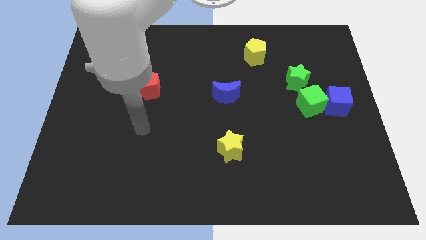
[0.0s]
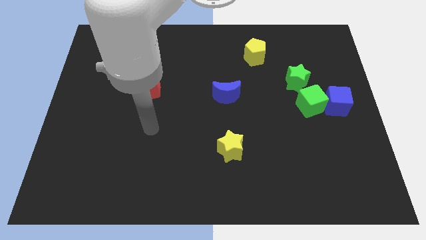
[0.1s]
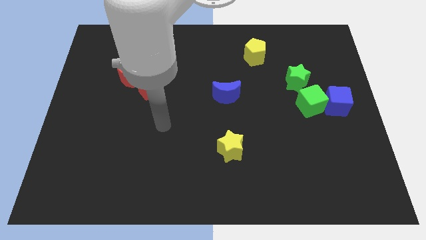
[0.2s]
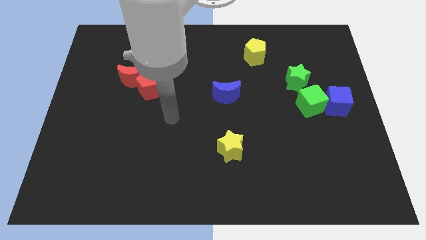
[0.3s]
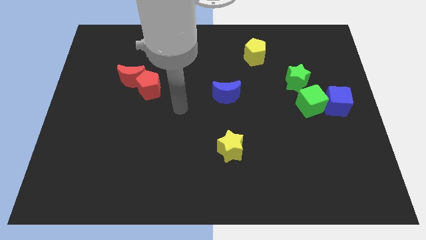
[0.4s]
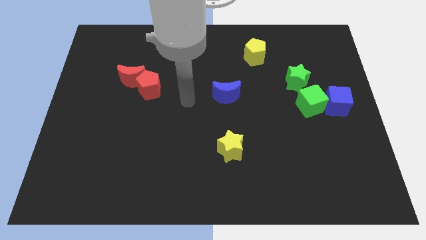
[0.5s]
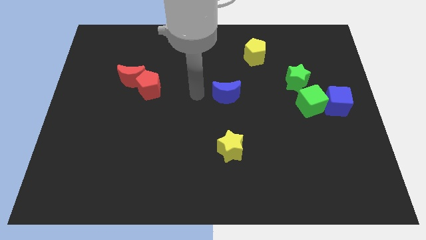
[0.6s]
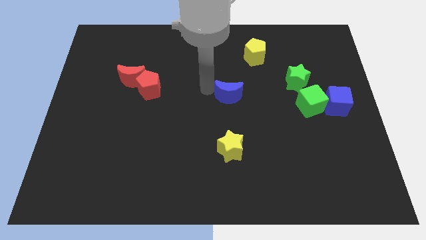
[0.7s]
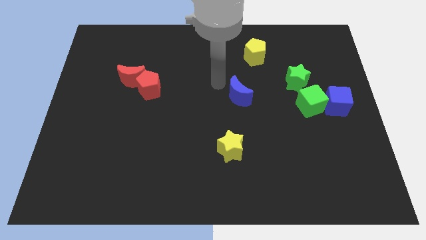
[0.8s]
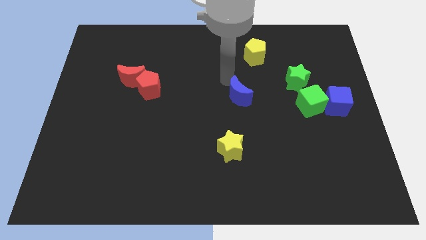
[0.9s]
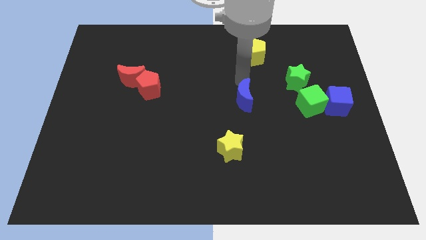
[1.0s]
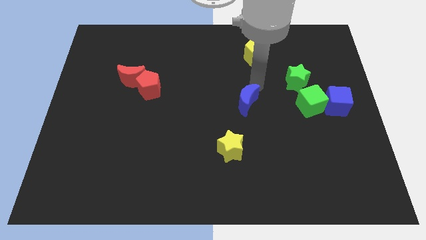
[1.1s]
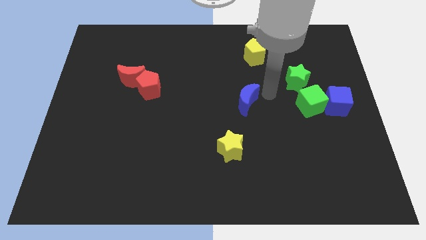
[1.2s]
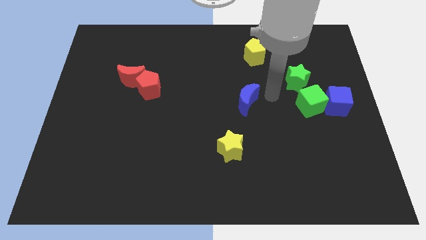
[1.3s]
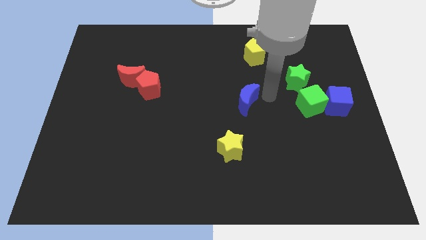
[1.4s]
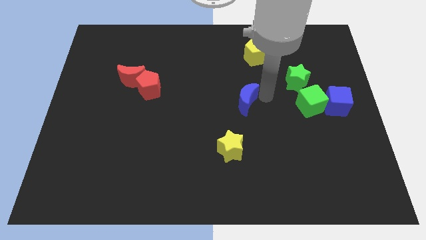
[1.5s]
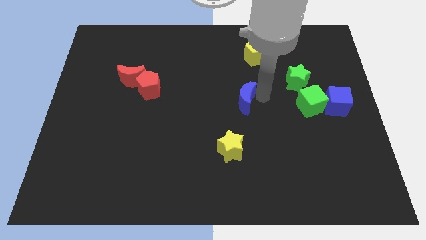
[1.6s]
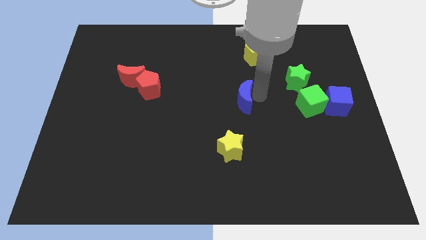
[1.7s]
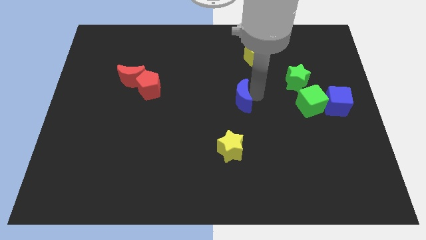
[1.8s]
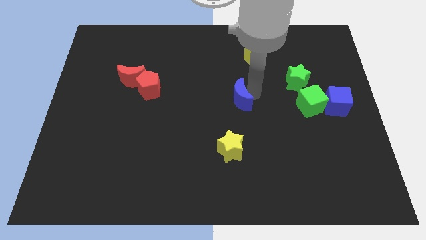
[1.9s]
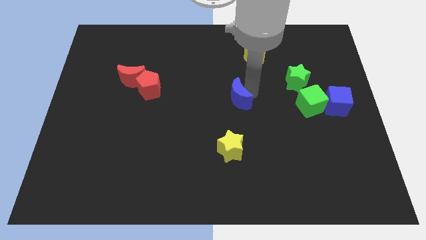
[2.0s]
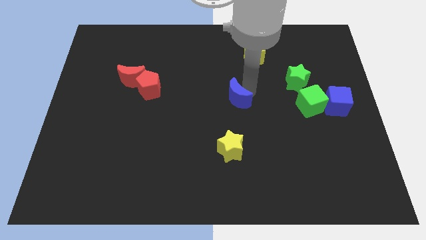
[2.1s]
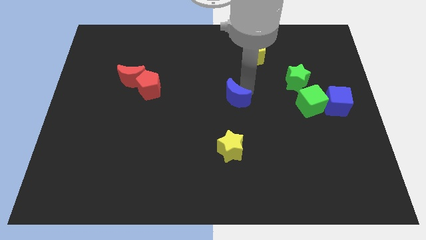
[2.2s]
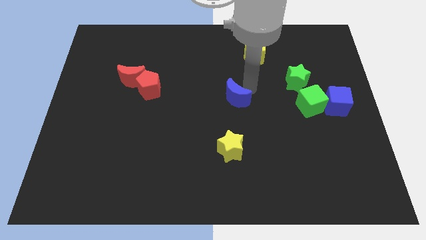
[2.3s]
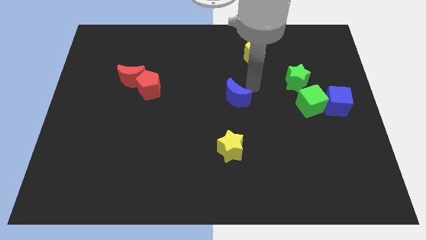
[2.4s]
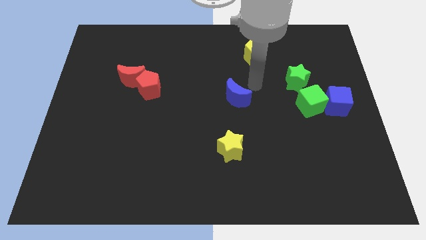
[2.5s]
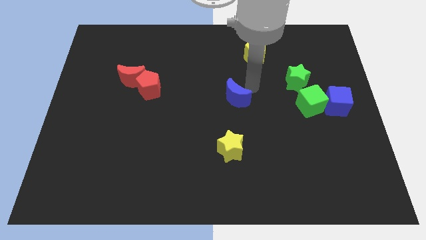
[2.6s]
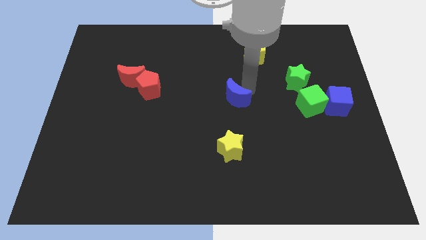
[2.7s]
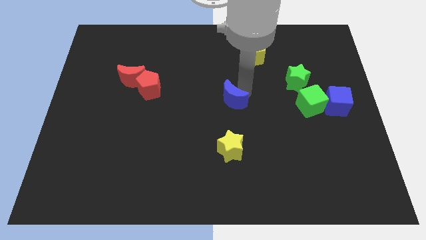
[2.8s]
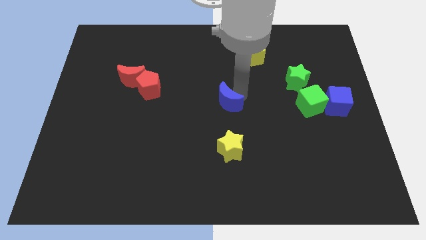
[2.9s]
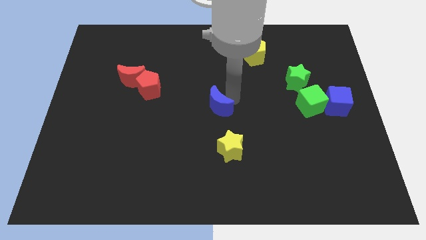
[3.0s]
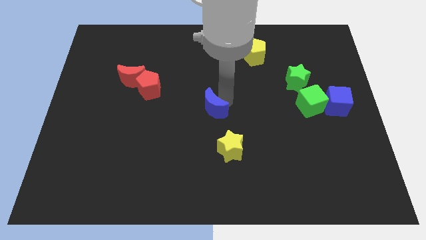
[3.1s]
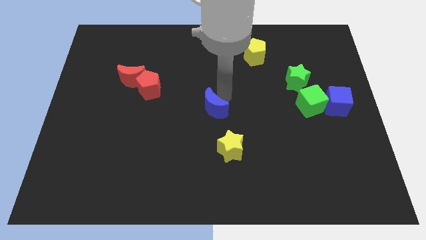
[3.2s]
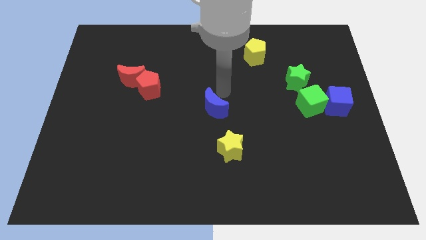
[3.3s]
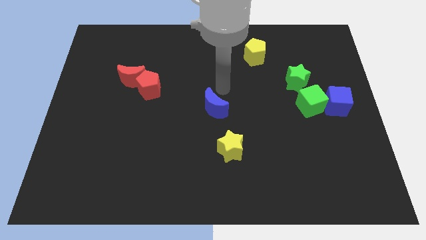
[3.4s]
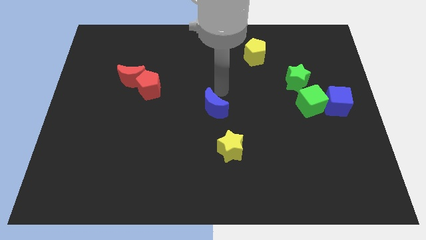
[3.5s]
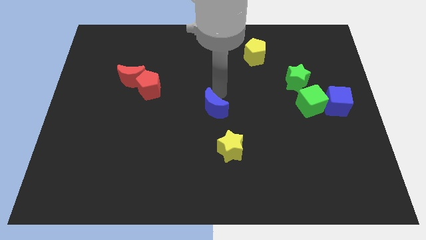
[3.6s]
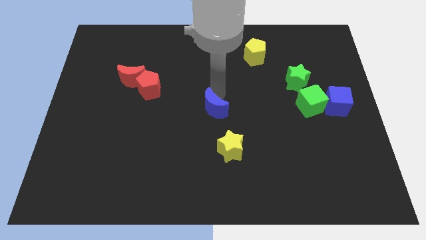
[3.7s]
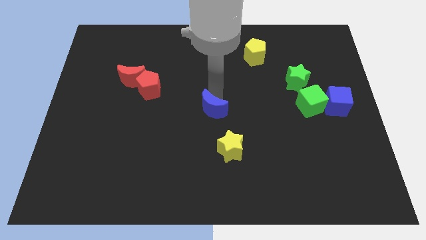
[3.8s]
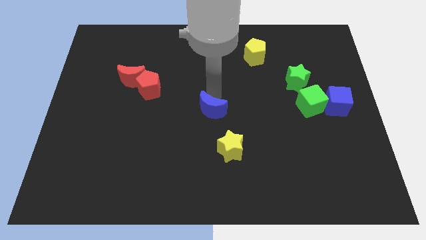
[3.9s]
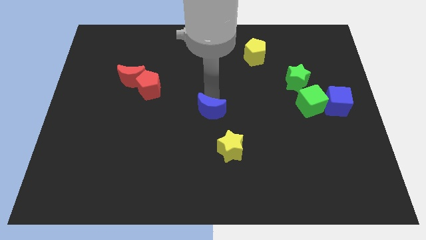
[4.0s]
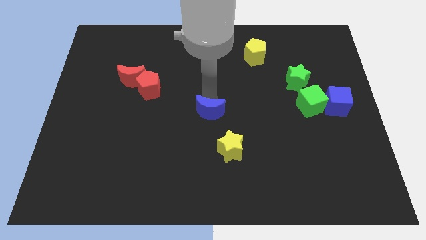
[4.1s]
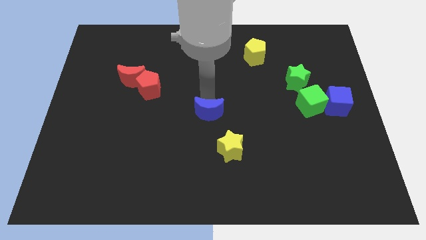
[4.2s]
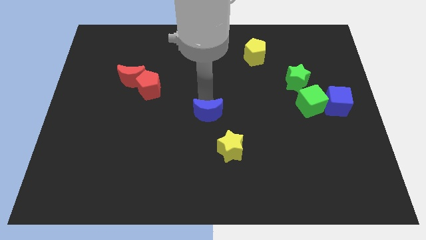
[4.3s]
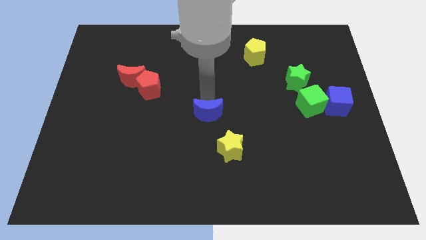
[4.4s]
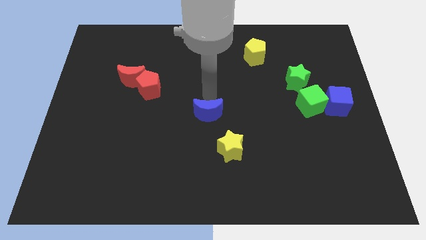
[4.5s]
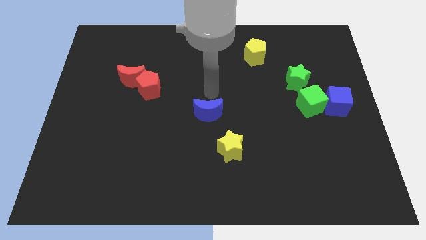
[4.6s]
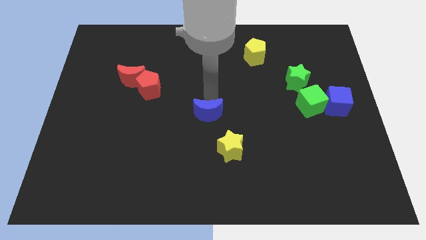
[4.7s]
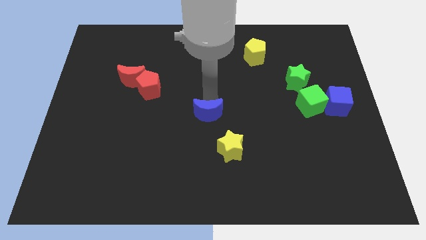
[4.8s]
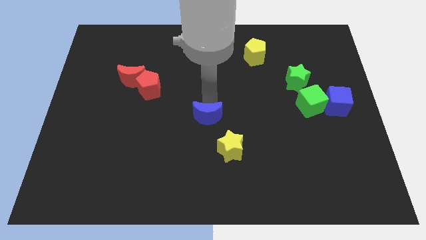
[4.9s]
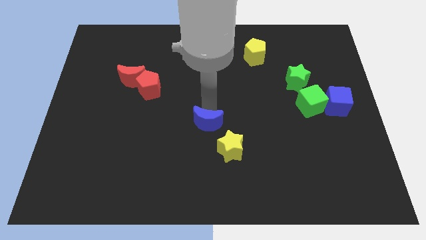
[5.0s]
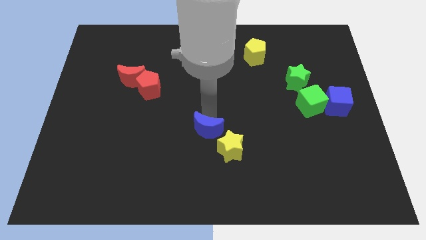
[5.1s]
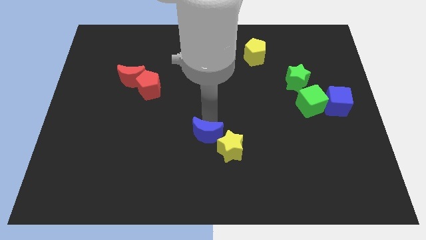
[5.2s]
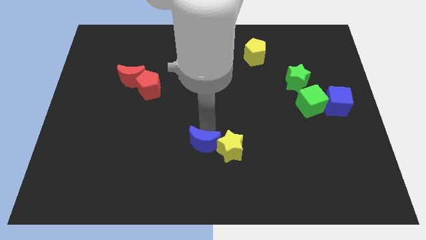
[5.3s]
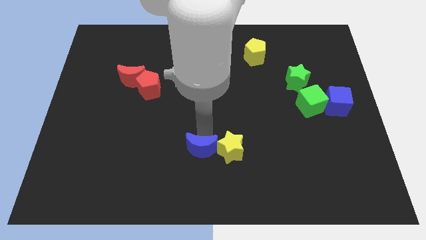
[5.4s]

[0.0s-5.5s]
push the blue moon to the bottom left side of the yellow star

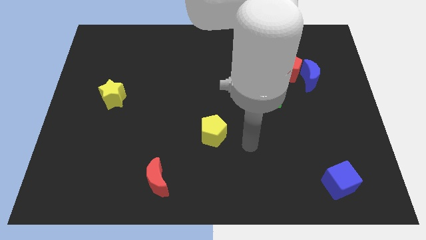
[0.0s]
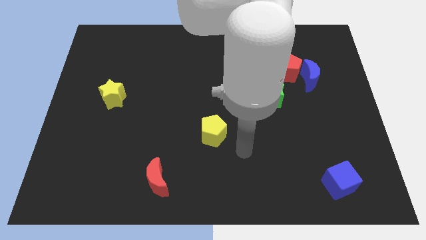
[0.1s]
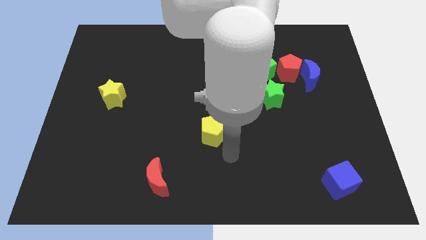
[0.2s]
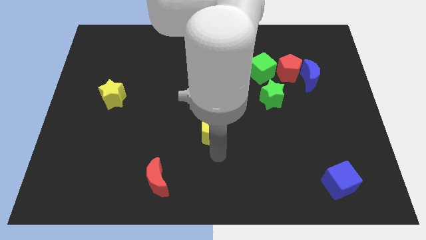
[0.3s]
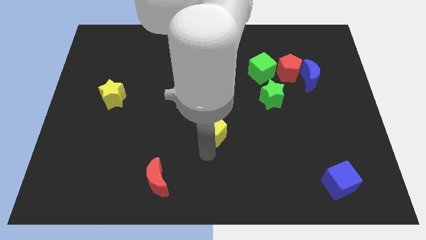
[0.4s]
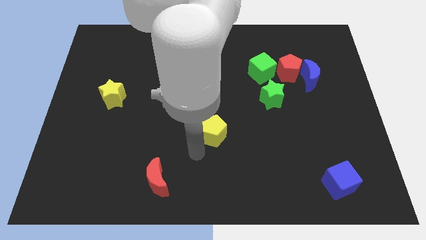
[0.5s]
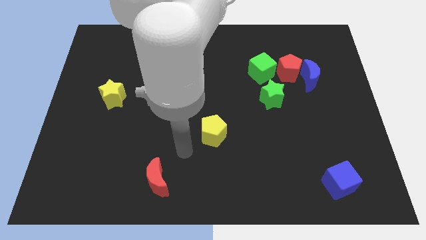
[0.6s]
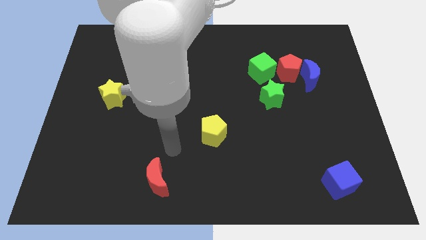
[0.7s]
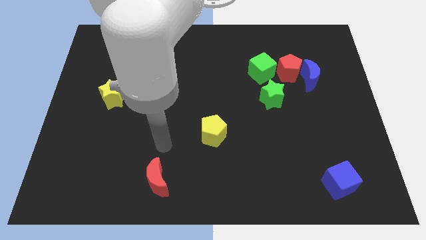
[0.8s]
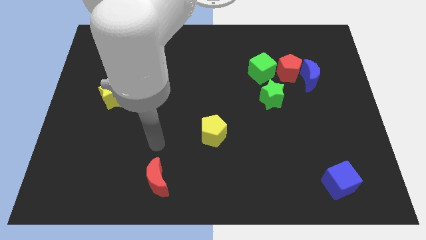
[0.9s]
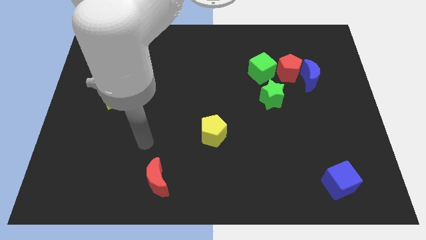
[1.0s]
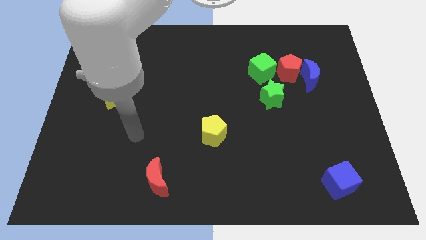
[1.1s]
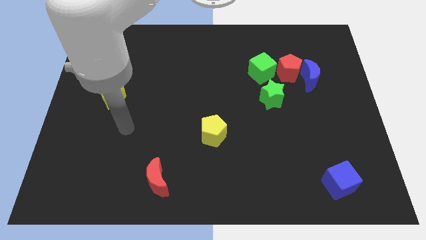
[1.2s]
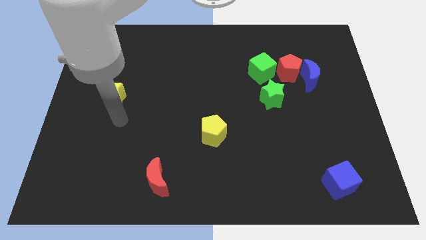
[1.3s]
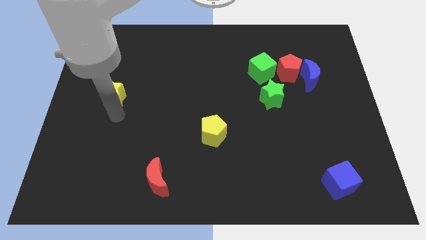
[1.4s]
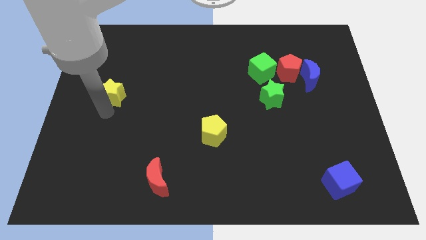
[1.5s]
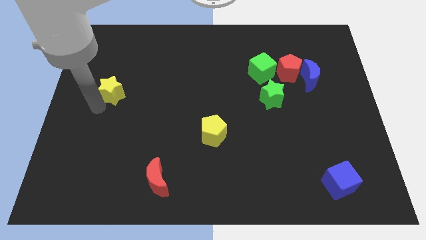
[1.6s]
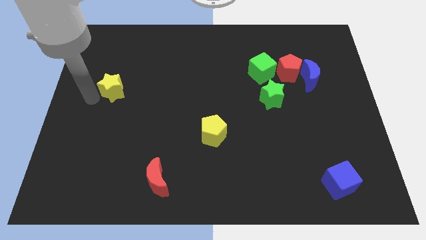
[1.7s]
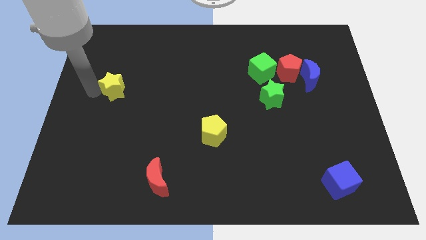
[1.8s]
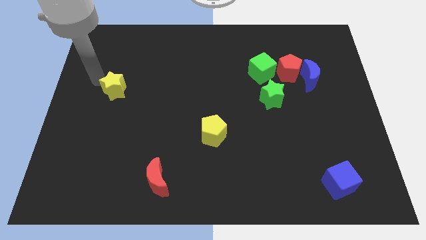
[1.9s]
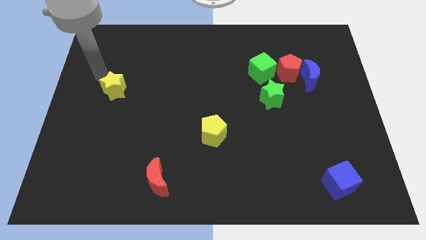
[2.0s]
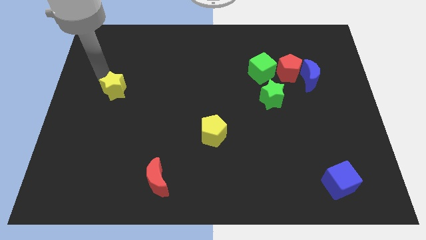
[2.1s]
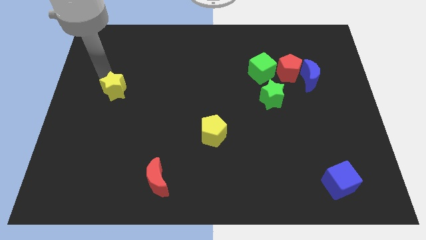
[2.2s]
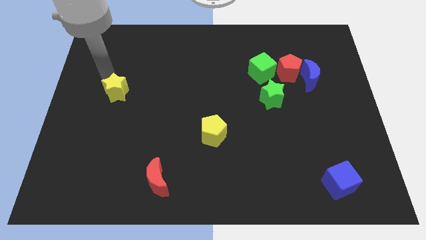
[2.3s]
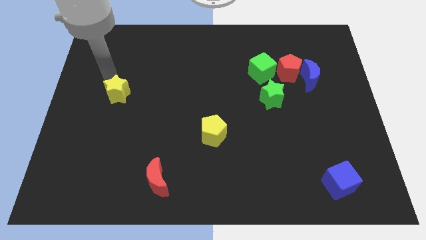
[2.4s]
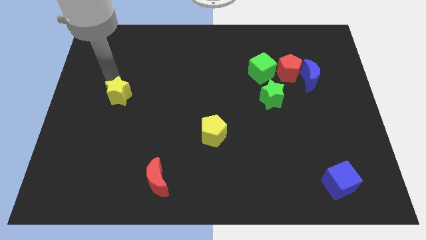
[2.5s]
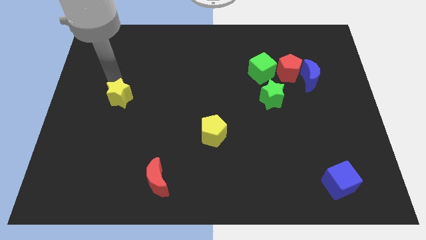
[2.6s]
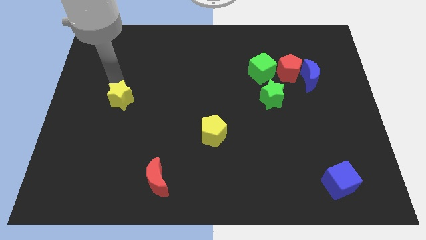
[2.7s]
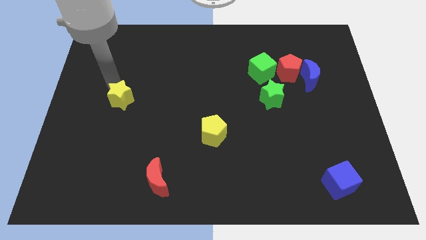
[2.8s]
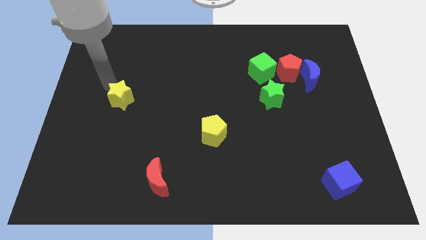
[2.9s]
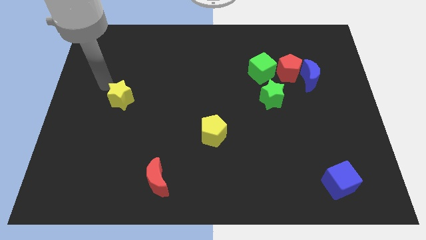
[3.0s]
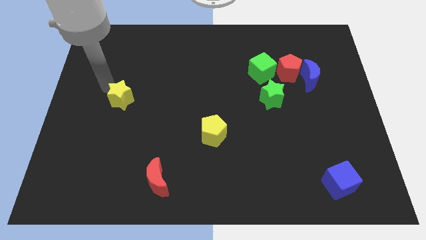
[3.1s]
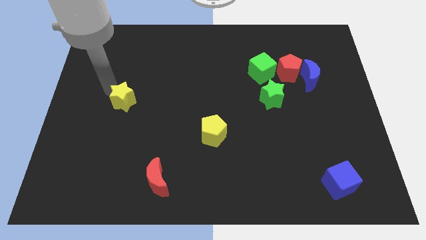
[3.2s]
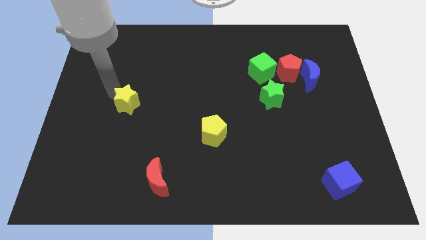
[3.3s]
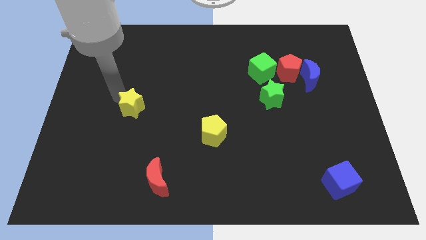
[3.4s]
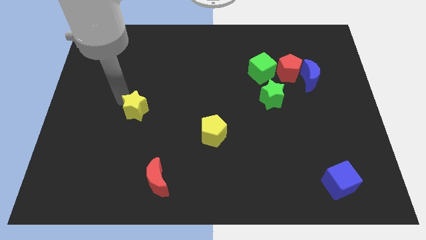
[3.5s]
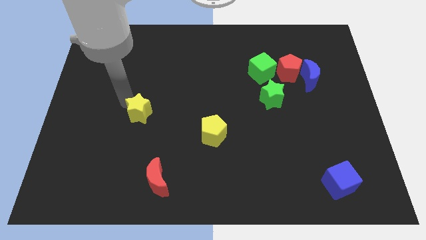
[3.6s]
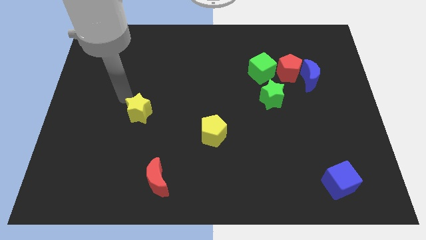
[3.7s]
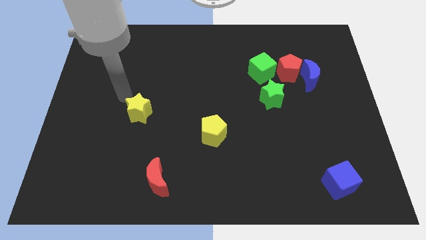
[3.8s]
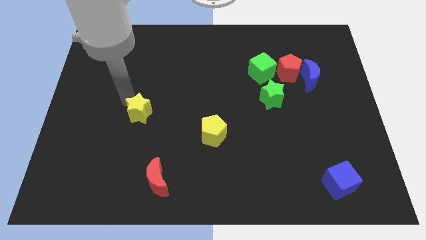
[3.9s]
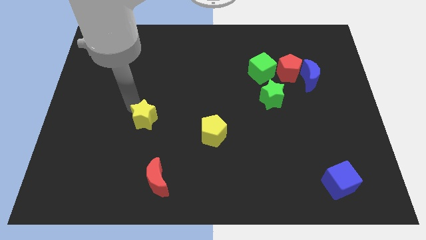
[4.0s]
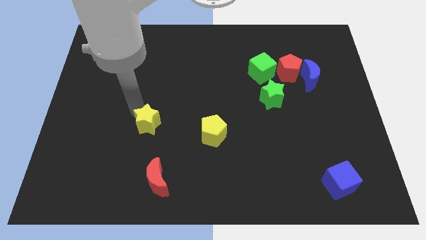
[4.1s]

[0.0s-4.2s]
slide the yellow star above the red moon
